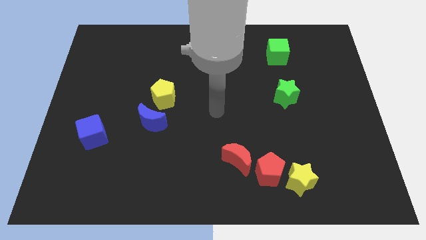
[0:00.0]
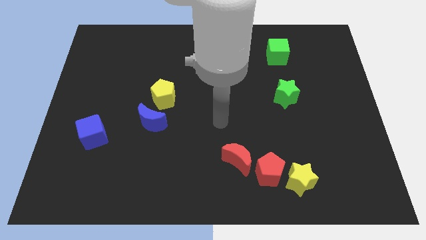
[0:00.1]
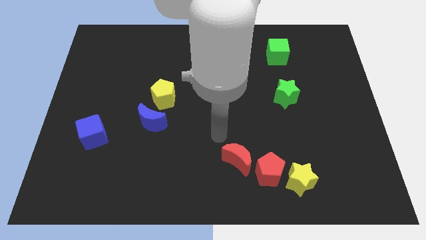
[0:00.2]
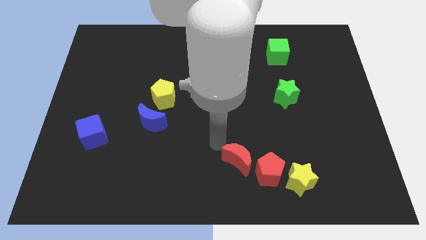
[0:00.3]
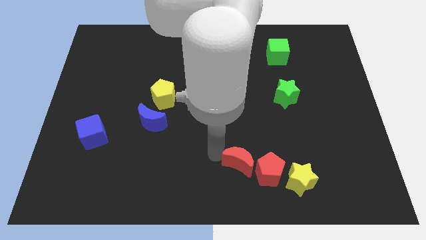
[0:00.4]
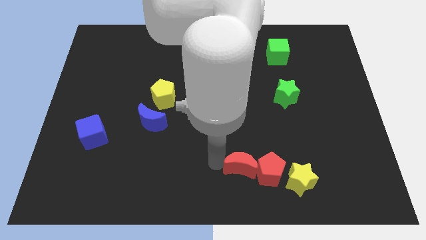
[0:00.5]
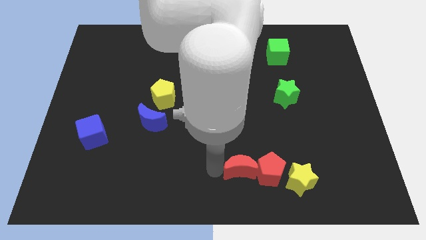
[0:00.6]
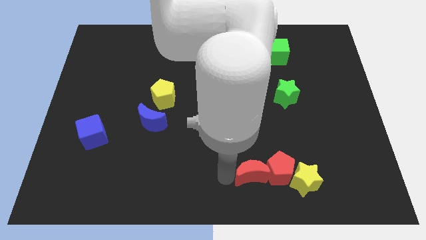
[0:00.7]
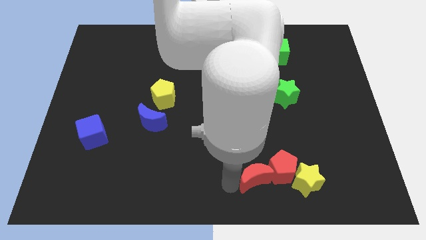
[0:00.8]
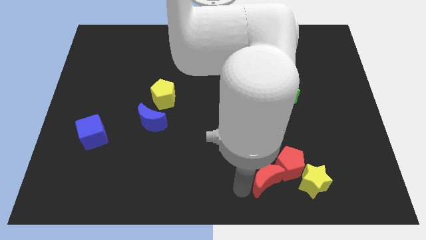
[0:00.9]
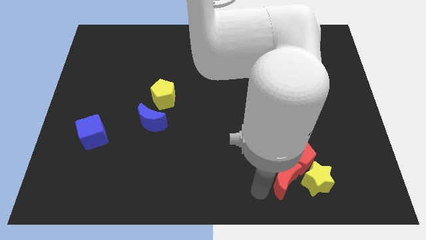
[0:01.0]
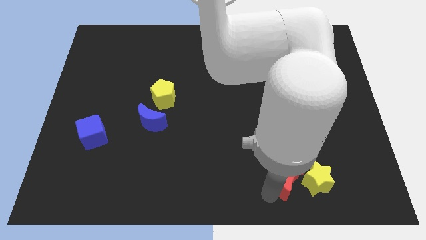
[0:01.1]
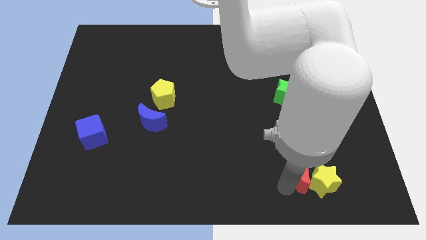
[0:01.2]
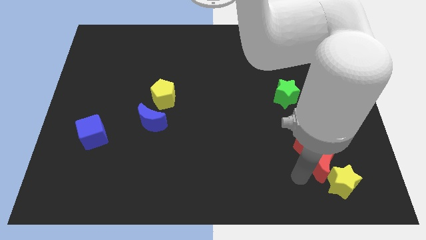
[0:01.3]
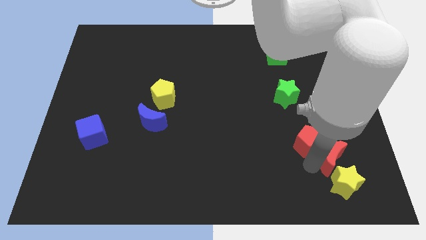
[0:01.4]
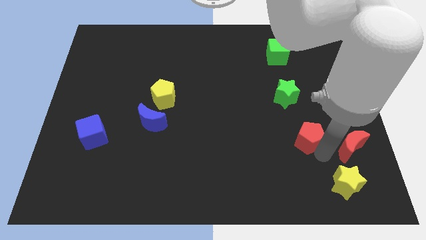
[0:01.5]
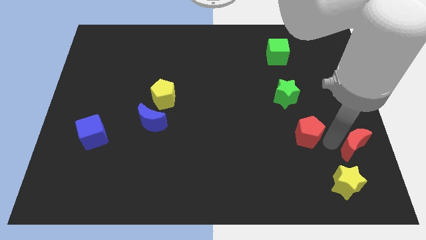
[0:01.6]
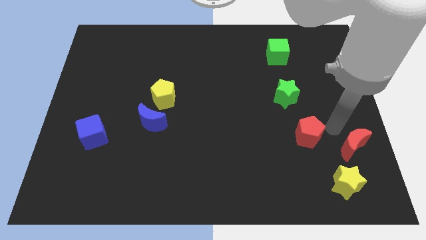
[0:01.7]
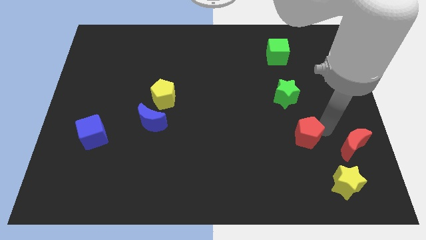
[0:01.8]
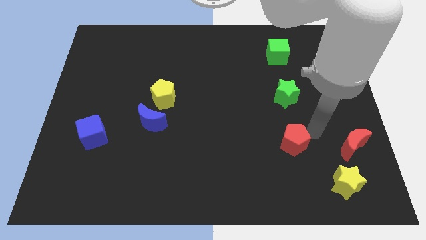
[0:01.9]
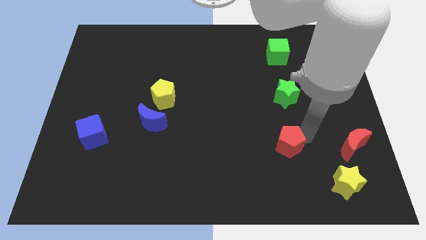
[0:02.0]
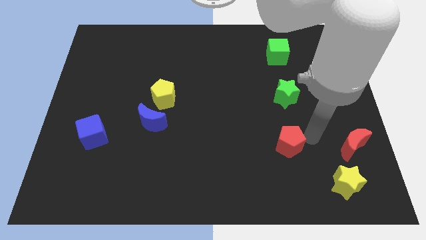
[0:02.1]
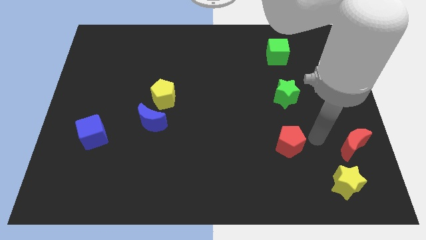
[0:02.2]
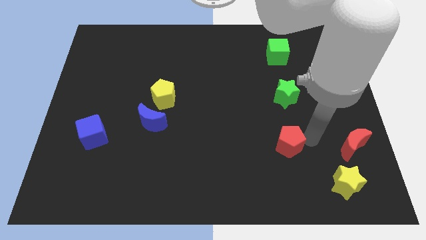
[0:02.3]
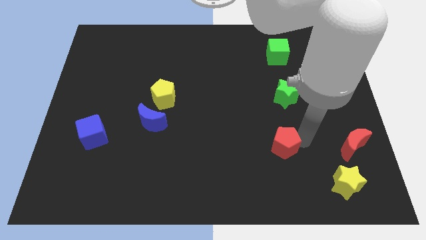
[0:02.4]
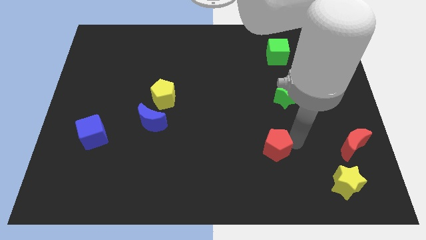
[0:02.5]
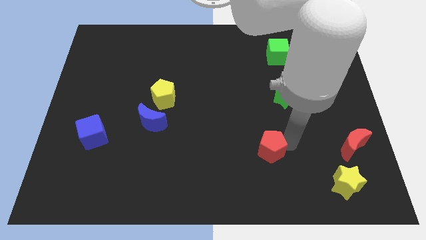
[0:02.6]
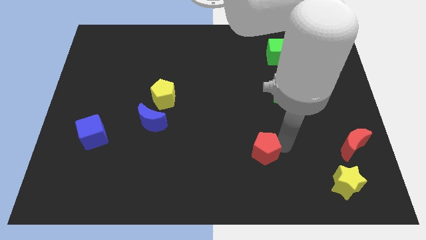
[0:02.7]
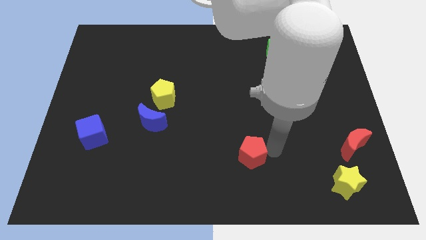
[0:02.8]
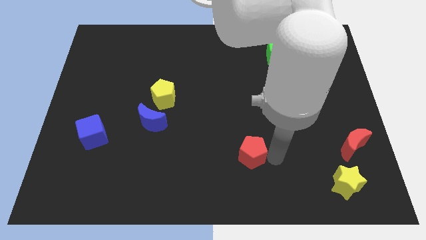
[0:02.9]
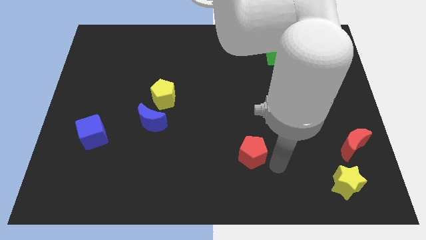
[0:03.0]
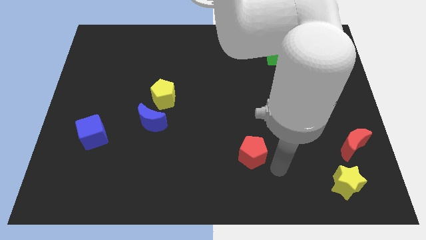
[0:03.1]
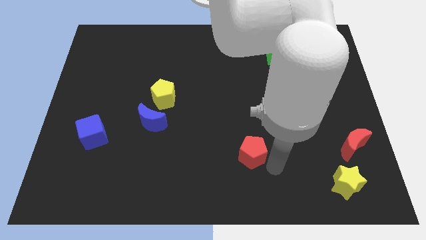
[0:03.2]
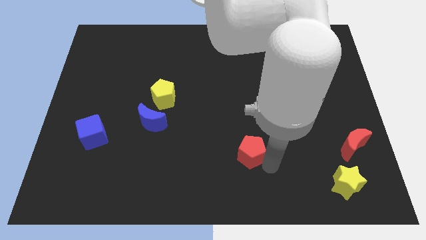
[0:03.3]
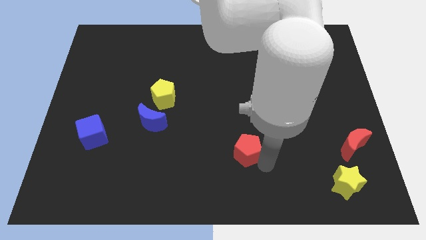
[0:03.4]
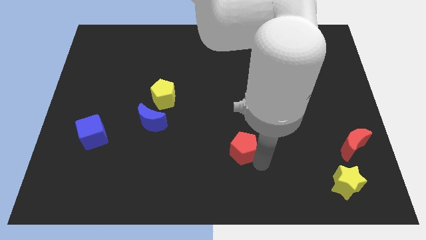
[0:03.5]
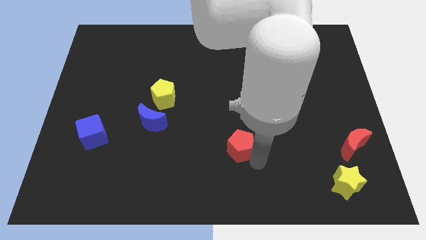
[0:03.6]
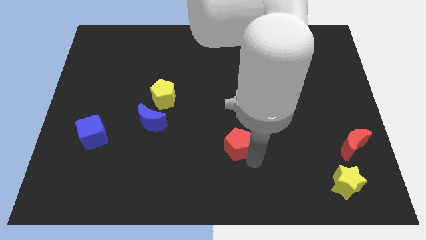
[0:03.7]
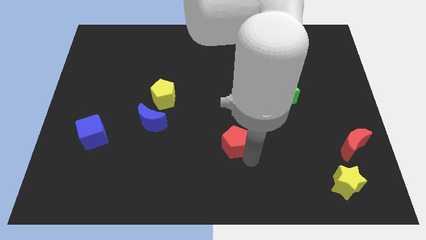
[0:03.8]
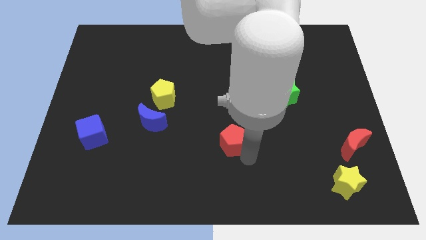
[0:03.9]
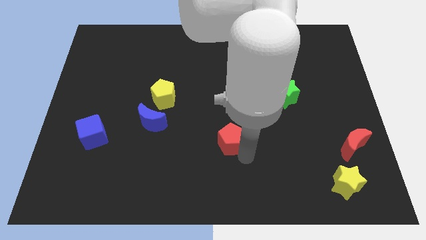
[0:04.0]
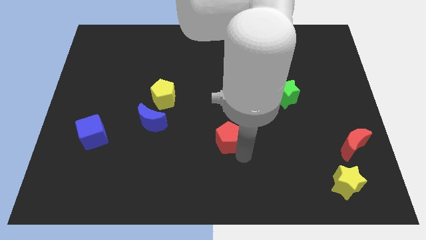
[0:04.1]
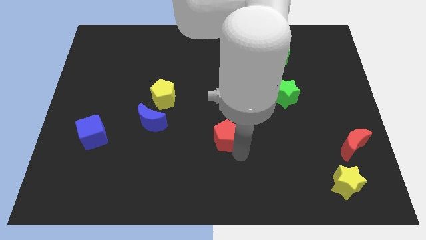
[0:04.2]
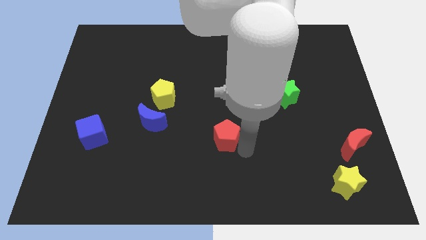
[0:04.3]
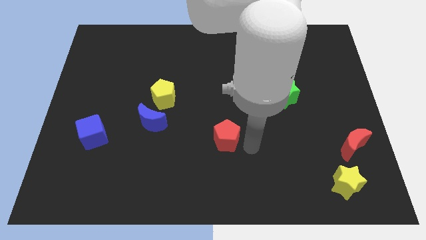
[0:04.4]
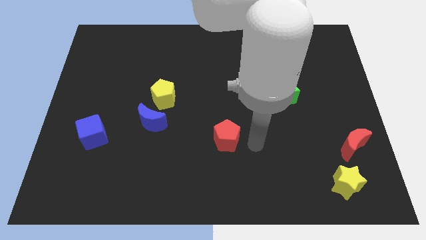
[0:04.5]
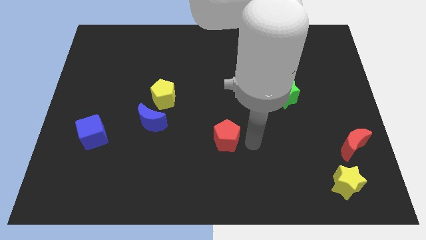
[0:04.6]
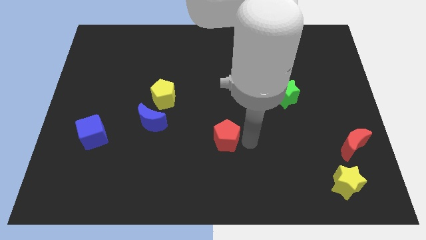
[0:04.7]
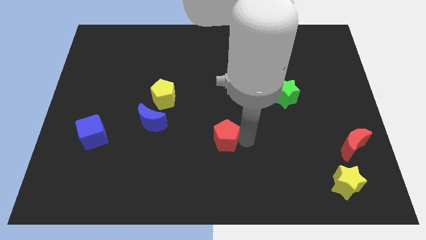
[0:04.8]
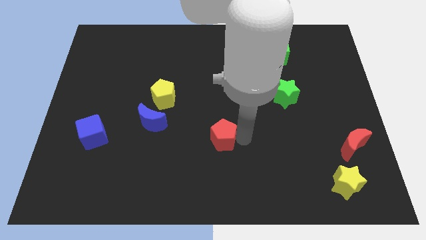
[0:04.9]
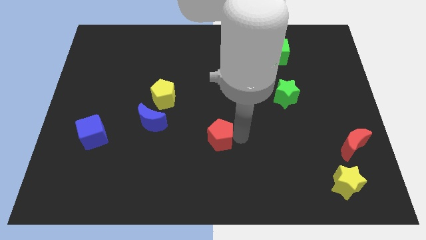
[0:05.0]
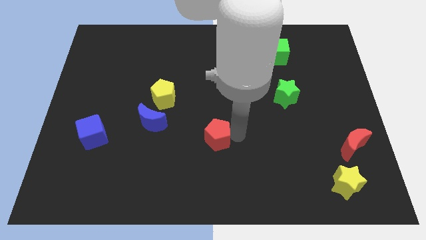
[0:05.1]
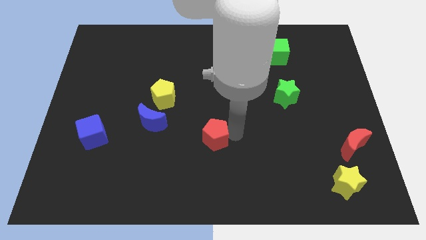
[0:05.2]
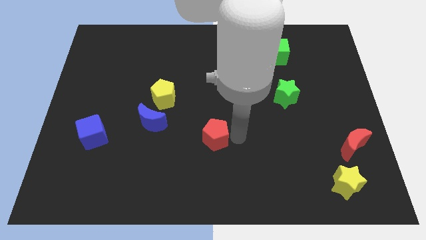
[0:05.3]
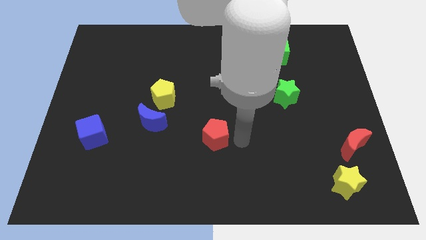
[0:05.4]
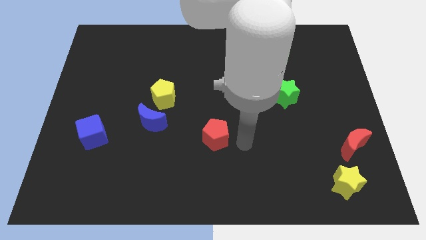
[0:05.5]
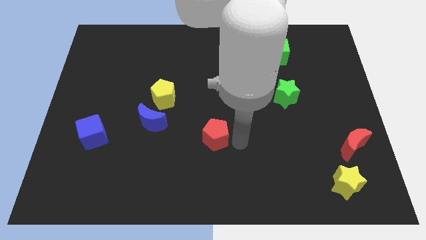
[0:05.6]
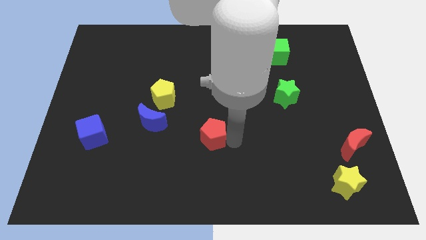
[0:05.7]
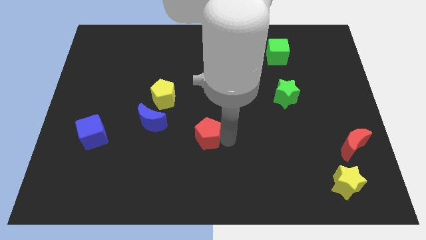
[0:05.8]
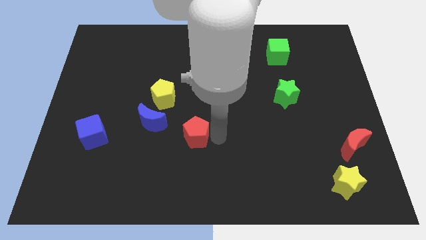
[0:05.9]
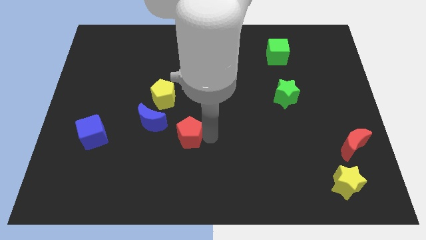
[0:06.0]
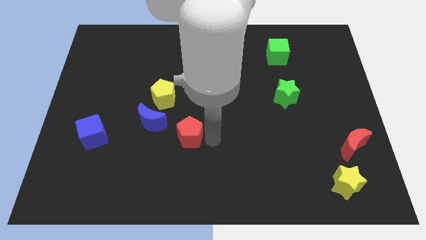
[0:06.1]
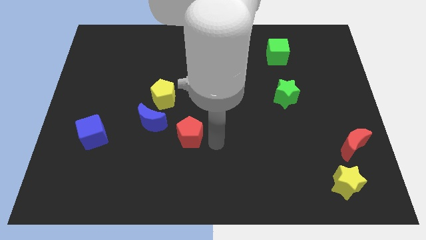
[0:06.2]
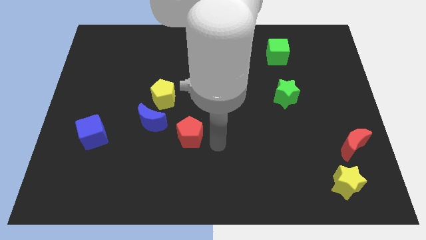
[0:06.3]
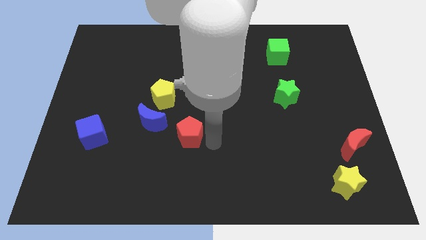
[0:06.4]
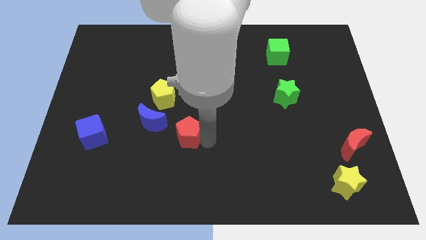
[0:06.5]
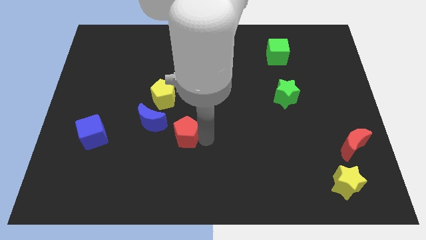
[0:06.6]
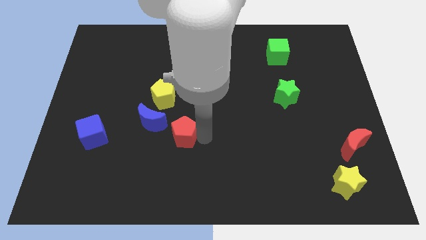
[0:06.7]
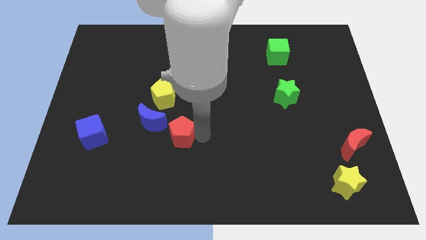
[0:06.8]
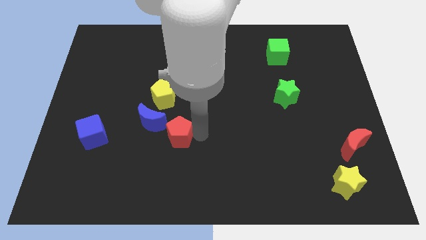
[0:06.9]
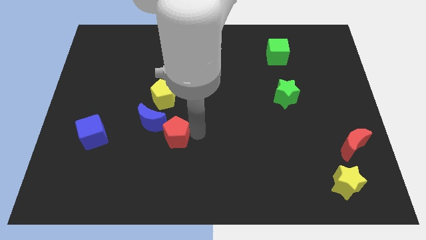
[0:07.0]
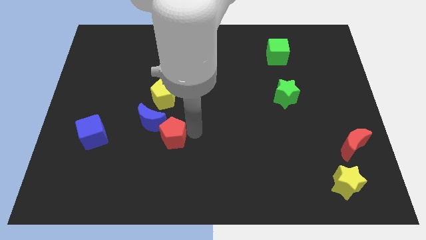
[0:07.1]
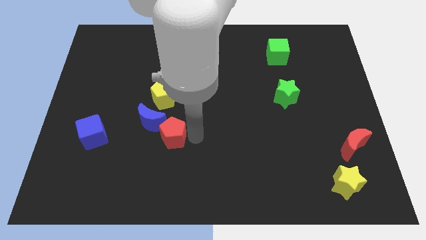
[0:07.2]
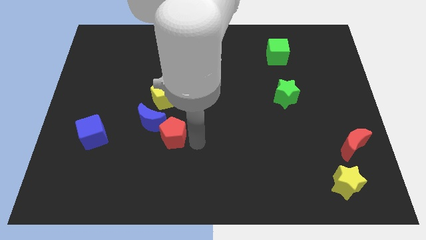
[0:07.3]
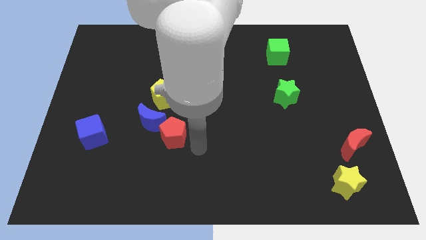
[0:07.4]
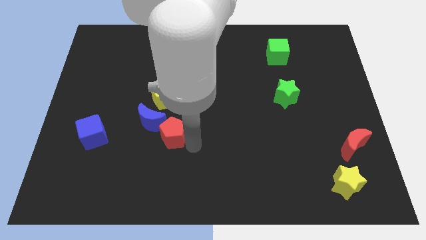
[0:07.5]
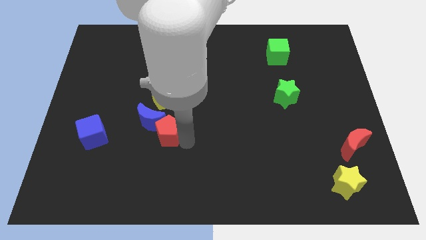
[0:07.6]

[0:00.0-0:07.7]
move the red pentagon close to the blue moon
